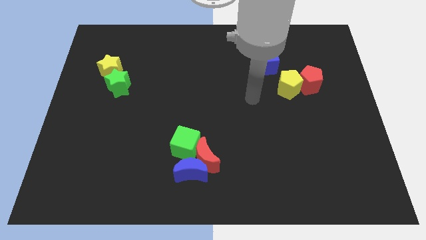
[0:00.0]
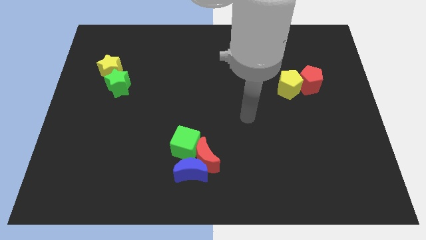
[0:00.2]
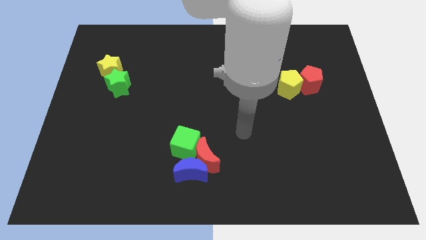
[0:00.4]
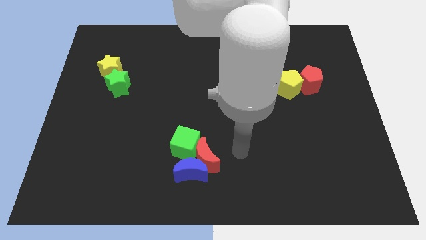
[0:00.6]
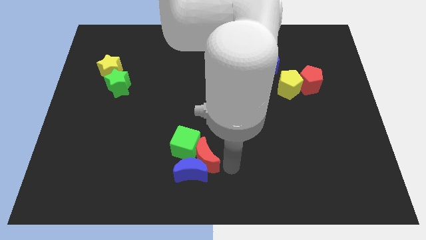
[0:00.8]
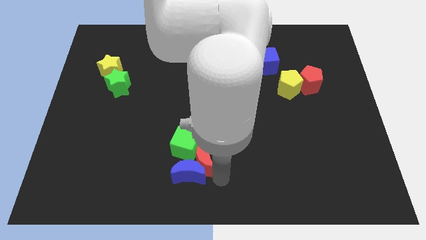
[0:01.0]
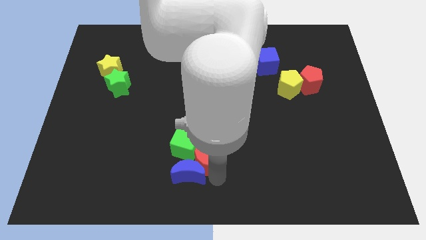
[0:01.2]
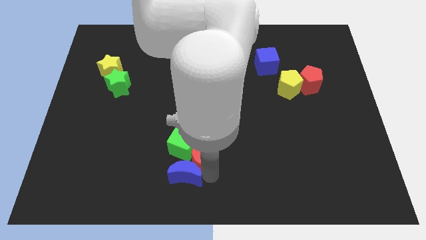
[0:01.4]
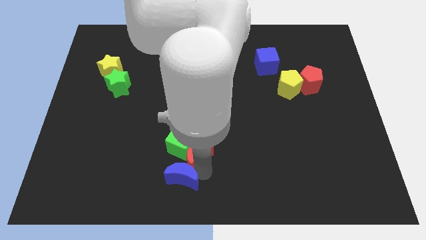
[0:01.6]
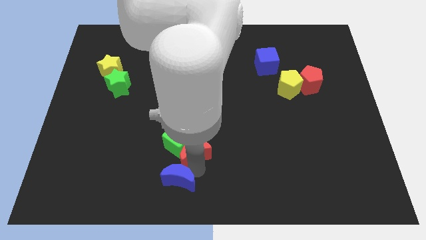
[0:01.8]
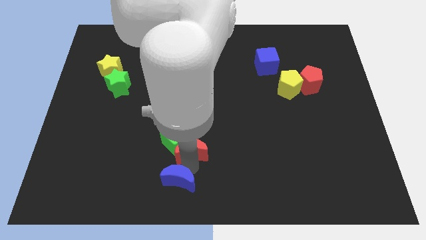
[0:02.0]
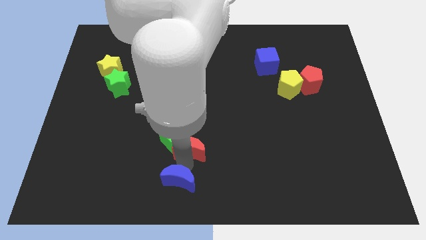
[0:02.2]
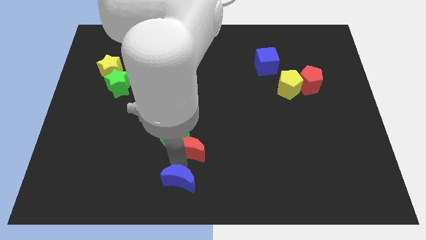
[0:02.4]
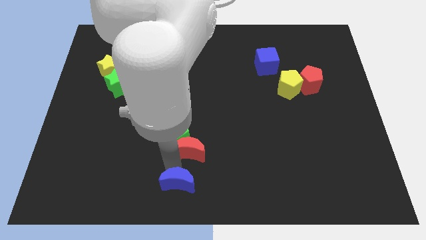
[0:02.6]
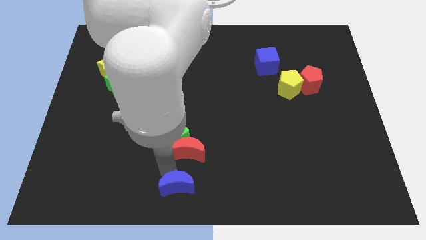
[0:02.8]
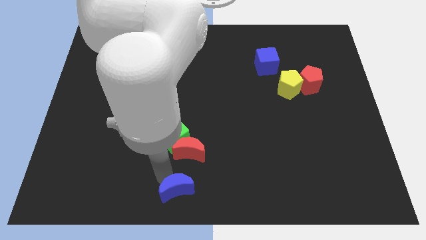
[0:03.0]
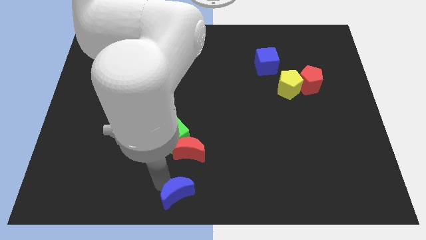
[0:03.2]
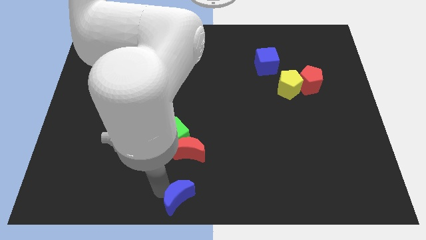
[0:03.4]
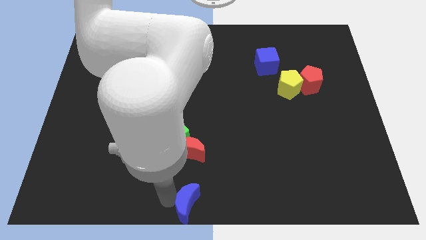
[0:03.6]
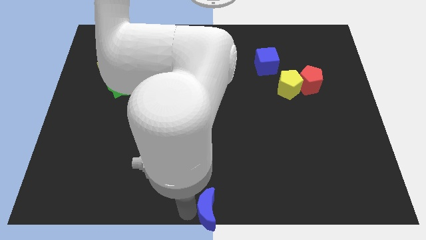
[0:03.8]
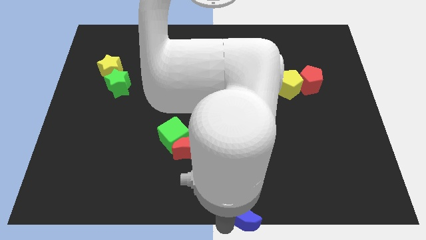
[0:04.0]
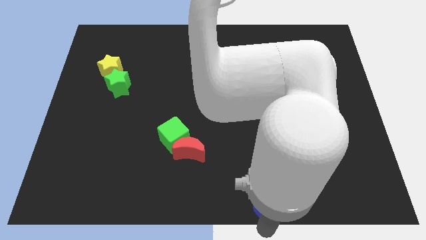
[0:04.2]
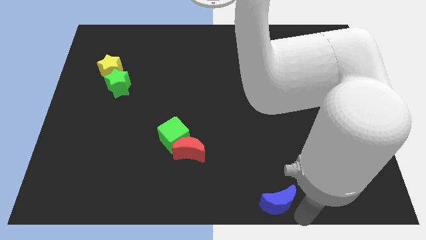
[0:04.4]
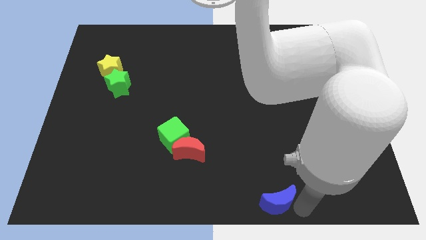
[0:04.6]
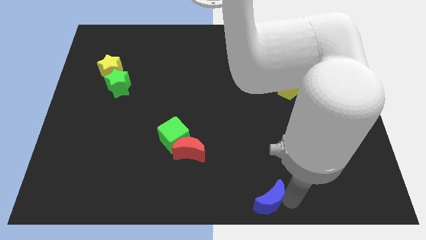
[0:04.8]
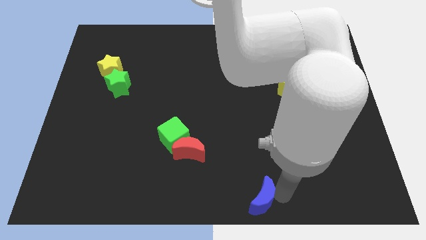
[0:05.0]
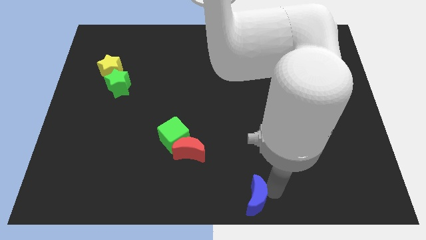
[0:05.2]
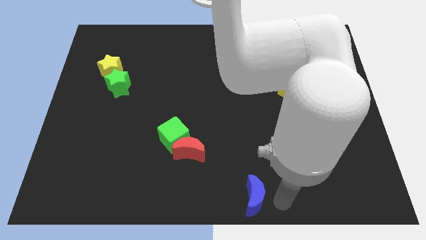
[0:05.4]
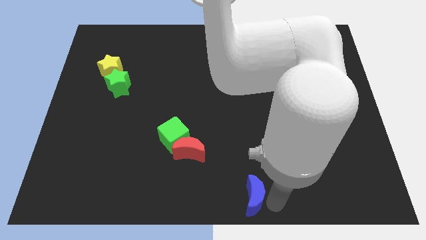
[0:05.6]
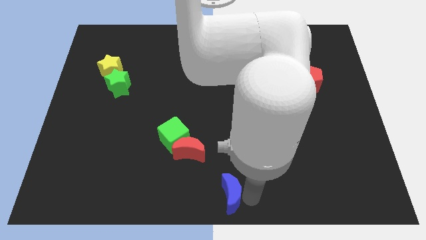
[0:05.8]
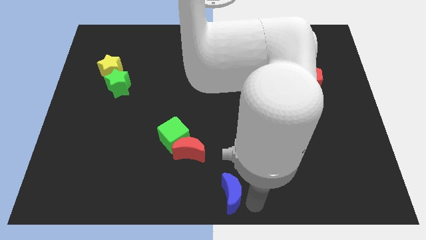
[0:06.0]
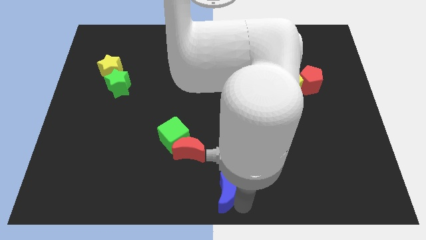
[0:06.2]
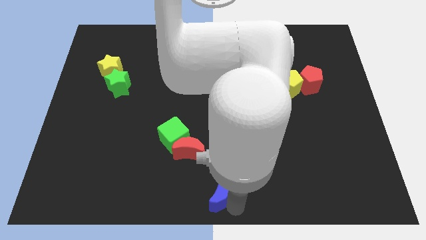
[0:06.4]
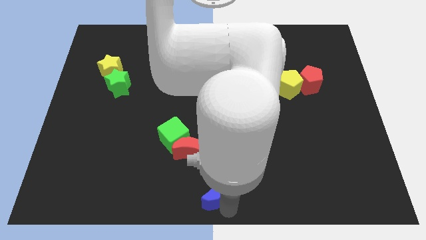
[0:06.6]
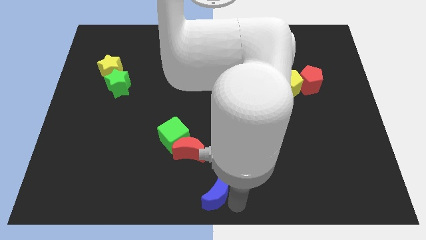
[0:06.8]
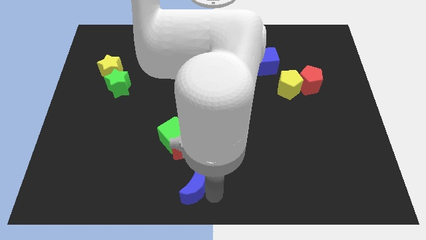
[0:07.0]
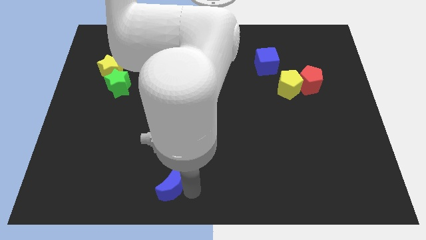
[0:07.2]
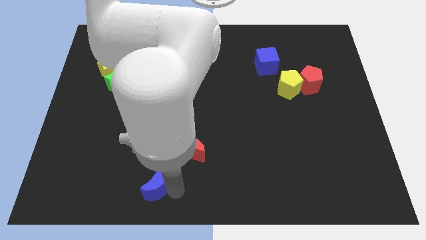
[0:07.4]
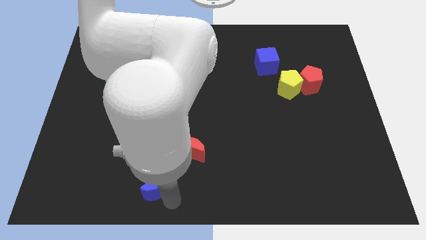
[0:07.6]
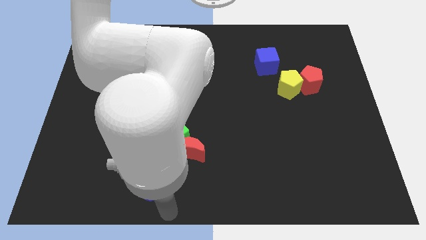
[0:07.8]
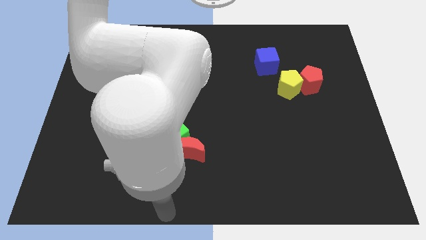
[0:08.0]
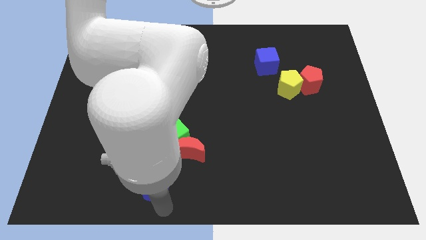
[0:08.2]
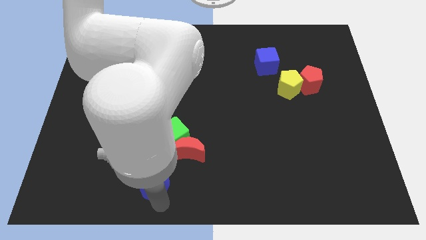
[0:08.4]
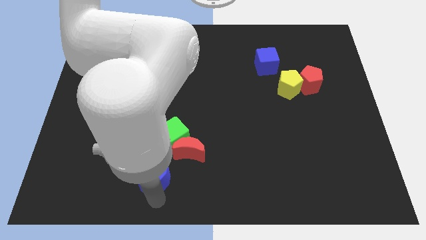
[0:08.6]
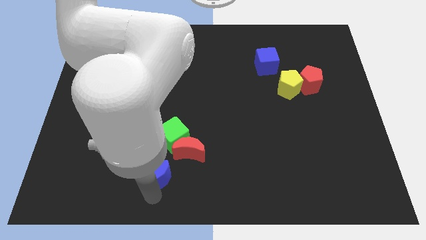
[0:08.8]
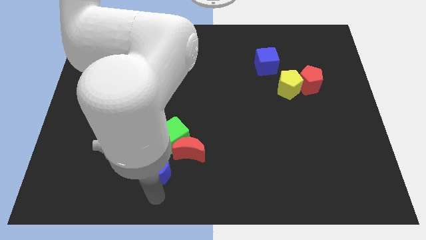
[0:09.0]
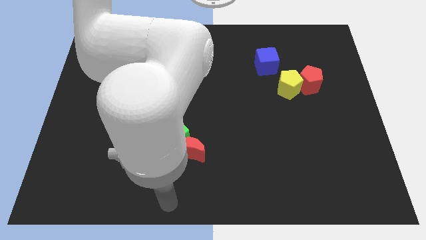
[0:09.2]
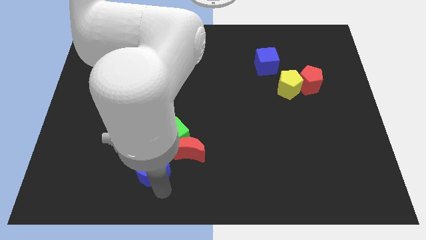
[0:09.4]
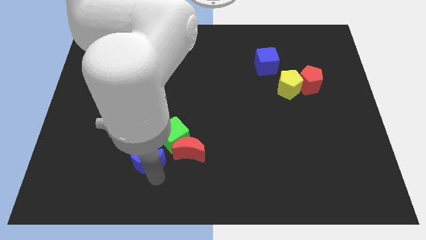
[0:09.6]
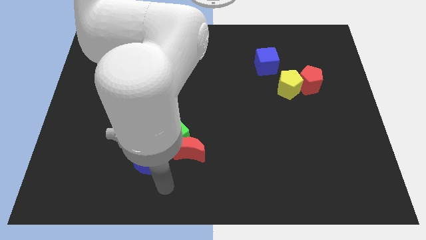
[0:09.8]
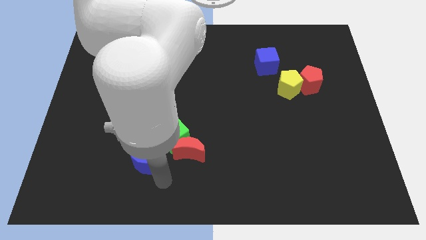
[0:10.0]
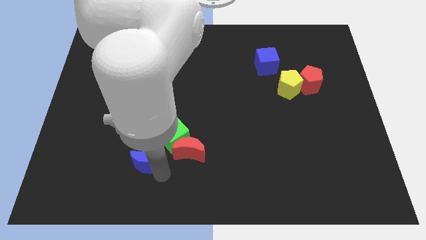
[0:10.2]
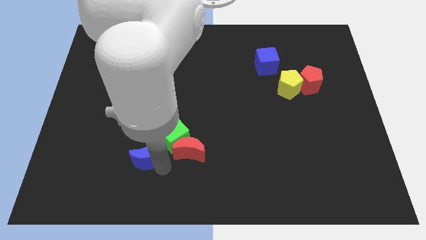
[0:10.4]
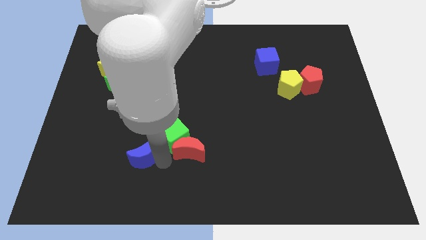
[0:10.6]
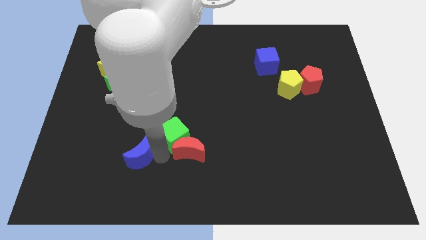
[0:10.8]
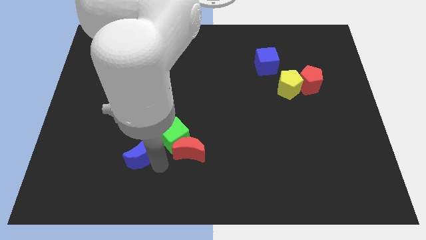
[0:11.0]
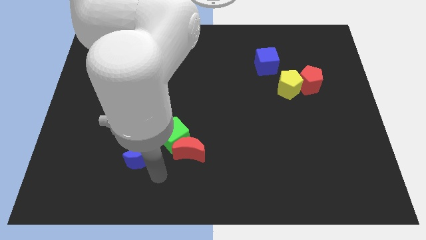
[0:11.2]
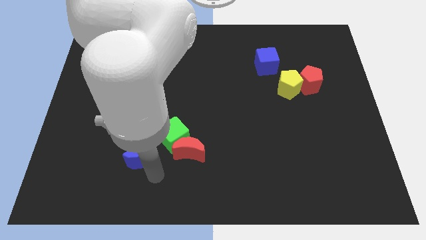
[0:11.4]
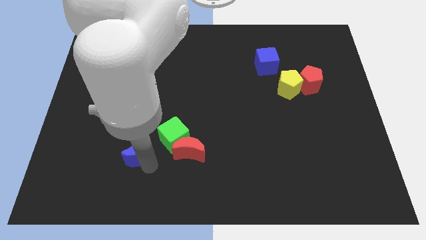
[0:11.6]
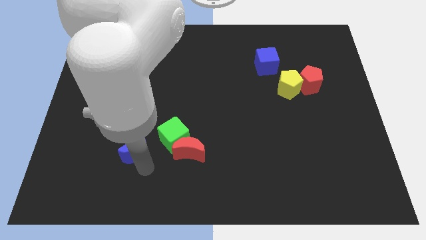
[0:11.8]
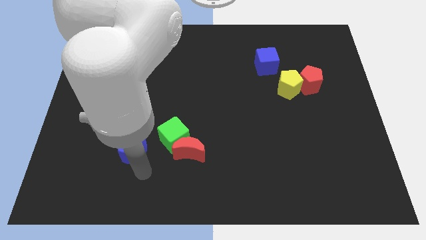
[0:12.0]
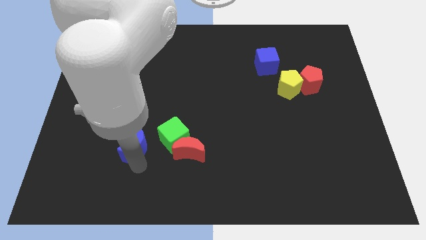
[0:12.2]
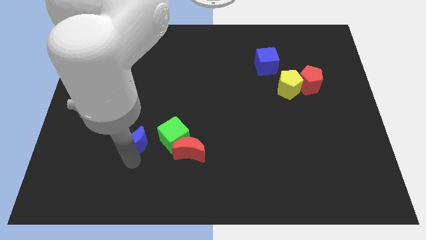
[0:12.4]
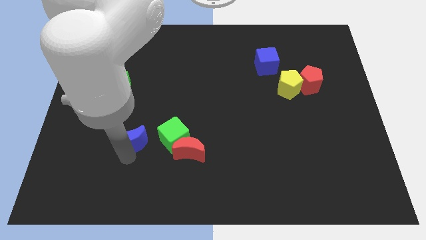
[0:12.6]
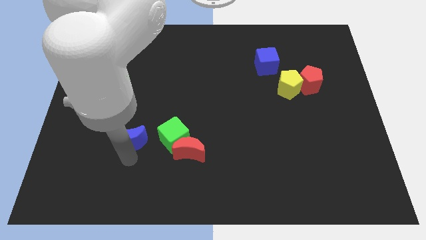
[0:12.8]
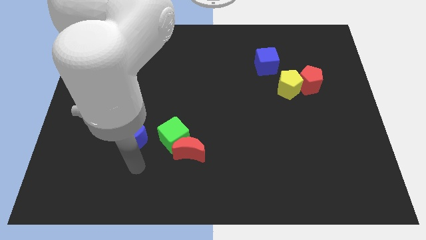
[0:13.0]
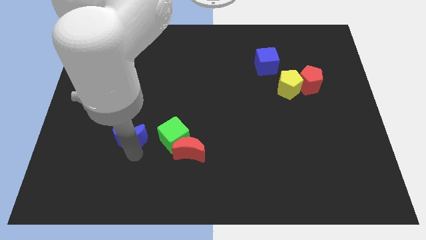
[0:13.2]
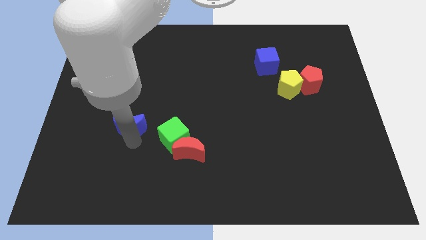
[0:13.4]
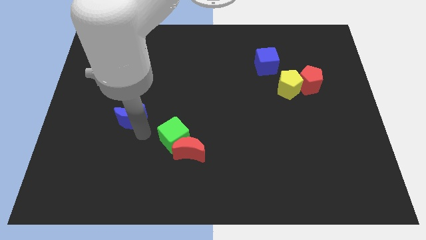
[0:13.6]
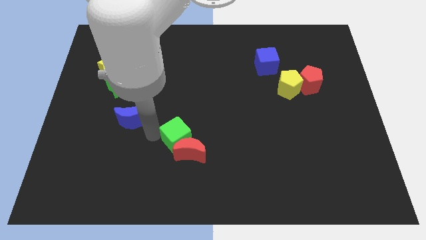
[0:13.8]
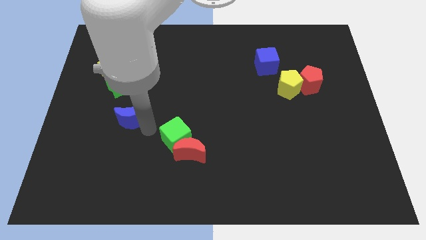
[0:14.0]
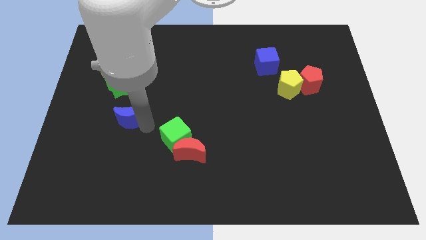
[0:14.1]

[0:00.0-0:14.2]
push the blue moon upwards and then left

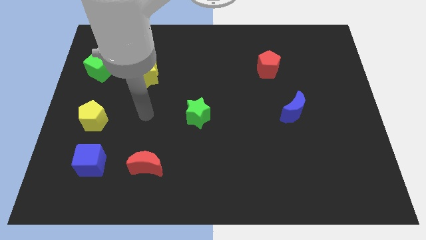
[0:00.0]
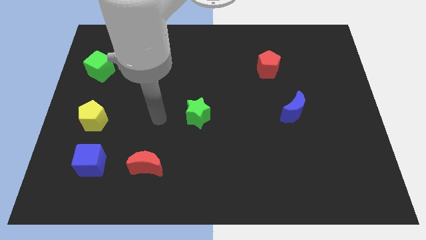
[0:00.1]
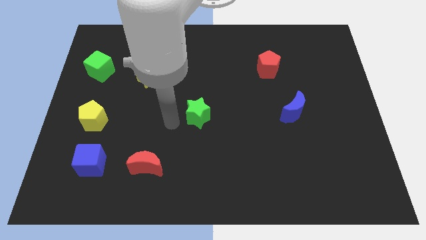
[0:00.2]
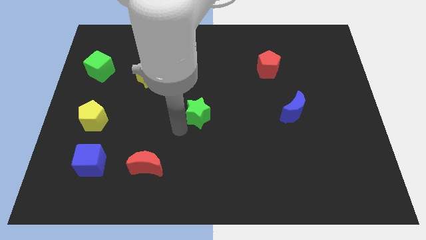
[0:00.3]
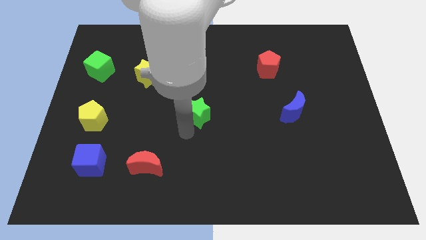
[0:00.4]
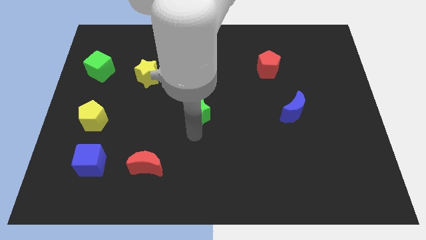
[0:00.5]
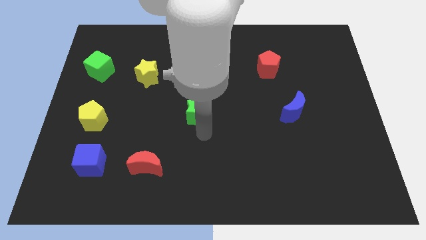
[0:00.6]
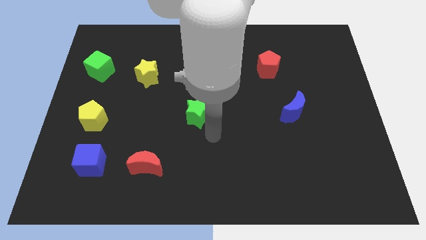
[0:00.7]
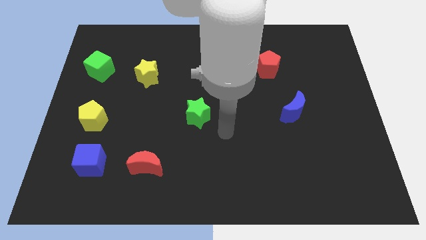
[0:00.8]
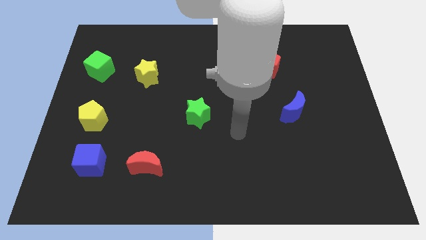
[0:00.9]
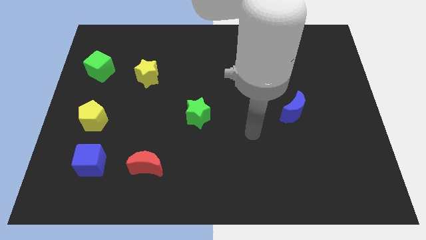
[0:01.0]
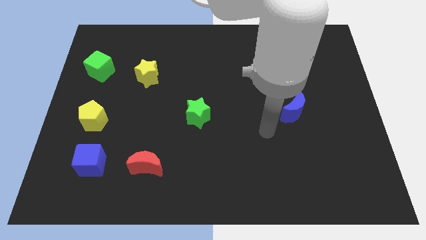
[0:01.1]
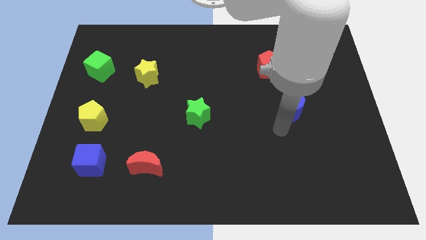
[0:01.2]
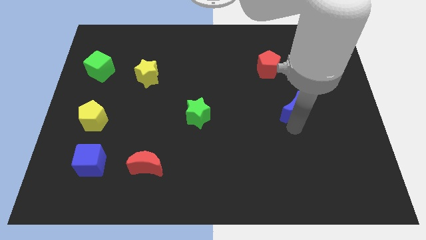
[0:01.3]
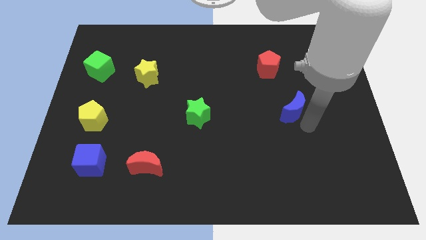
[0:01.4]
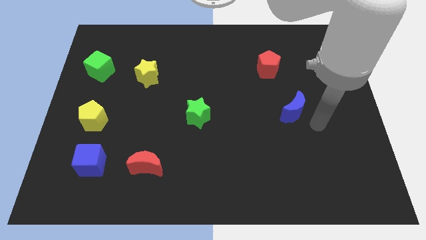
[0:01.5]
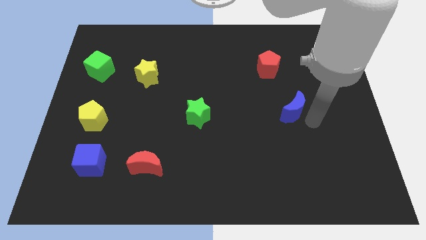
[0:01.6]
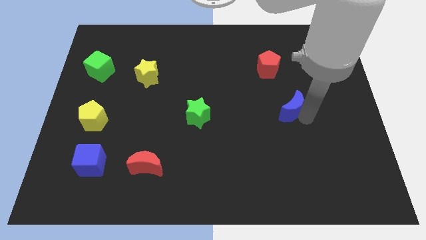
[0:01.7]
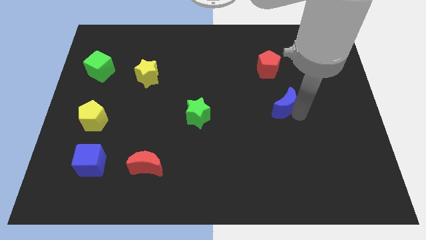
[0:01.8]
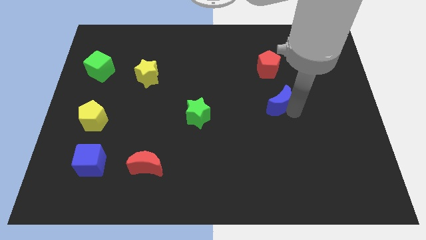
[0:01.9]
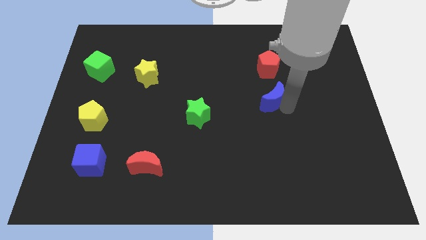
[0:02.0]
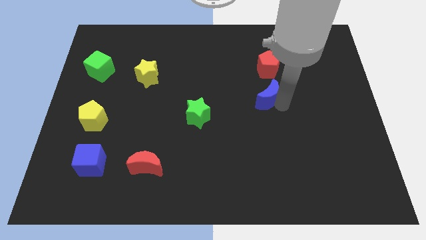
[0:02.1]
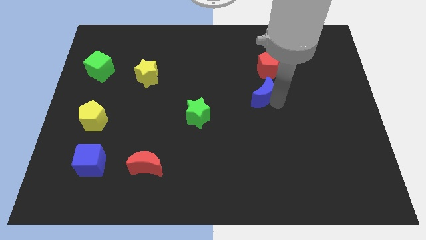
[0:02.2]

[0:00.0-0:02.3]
slide the blue moon up and to the left diagonally slightly
